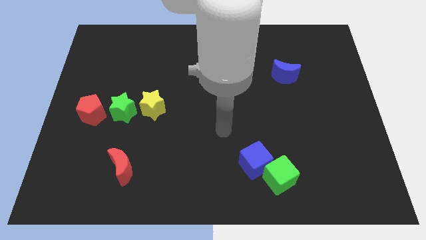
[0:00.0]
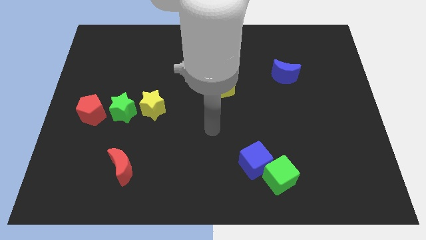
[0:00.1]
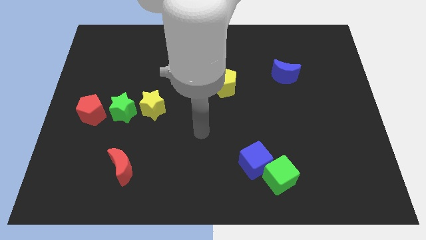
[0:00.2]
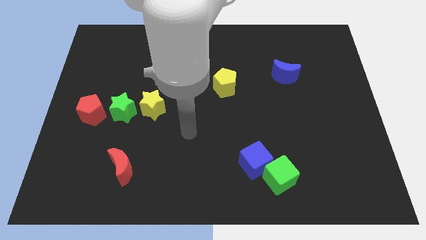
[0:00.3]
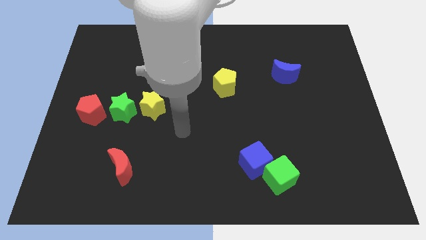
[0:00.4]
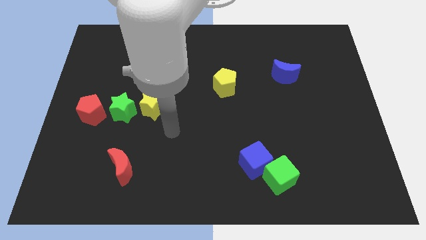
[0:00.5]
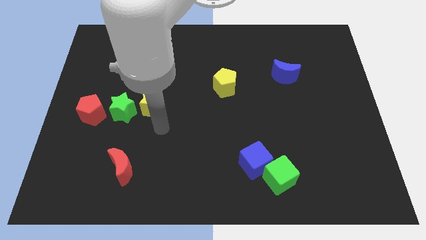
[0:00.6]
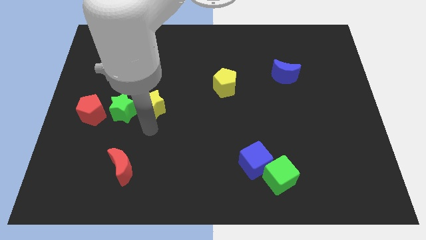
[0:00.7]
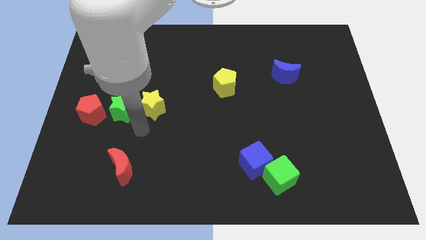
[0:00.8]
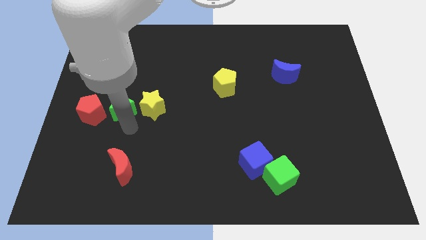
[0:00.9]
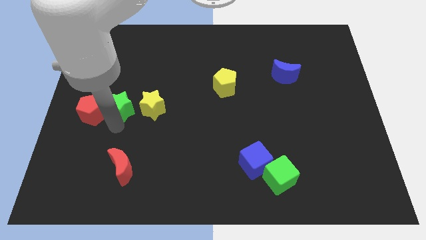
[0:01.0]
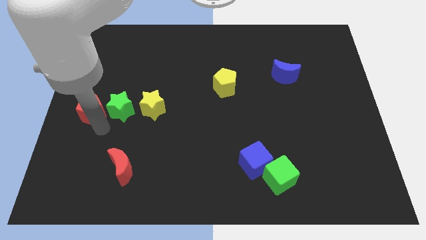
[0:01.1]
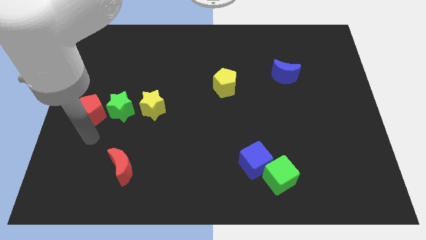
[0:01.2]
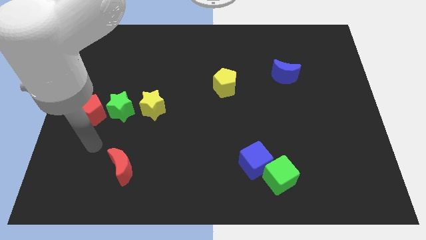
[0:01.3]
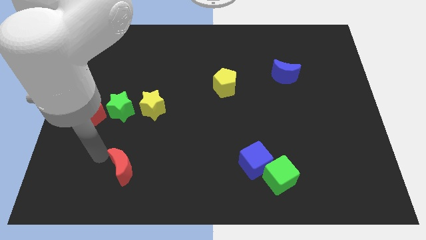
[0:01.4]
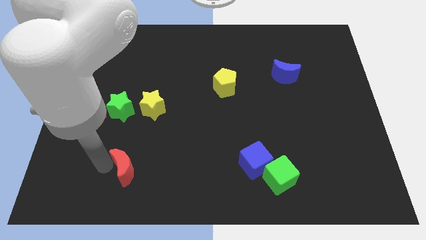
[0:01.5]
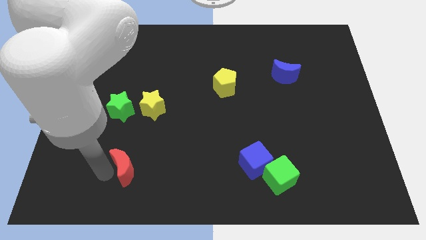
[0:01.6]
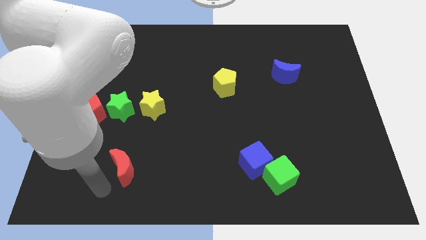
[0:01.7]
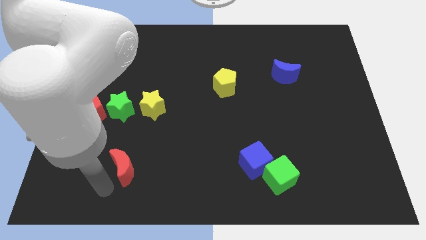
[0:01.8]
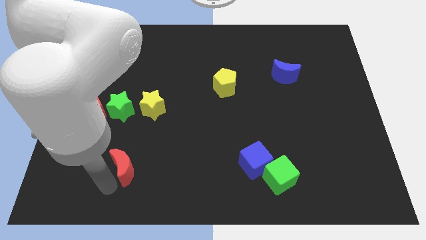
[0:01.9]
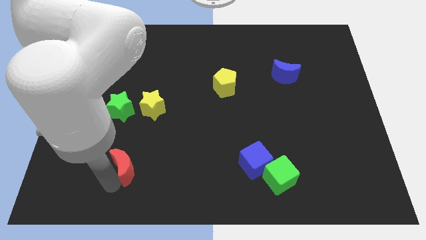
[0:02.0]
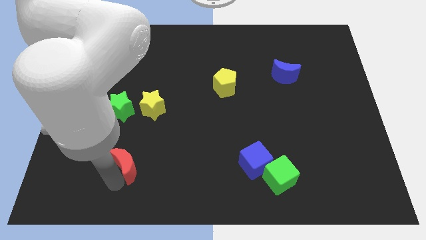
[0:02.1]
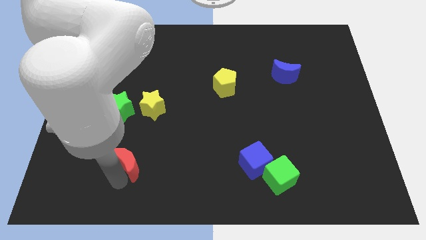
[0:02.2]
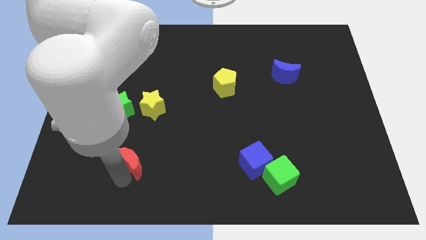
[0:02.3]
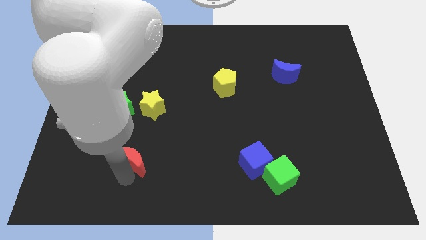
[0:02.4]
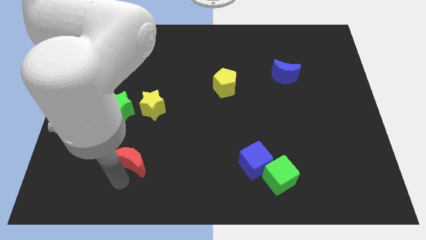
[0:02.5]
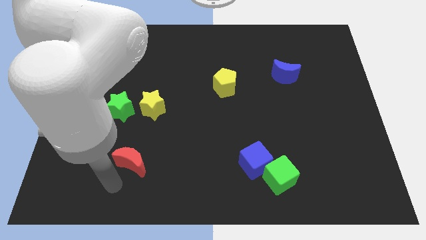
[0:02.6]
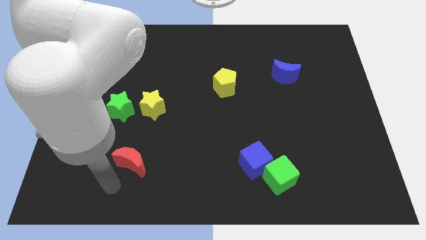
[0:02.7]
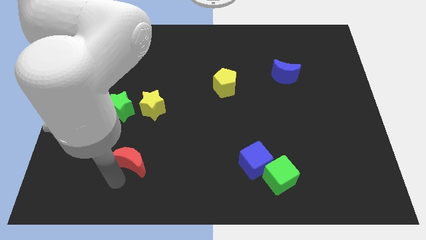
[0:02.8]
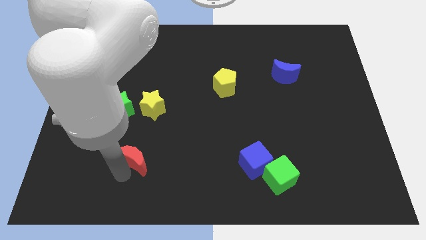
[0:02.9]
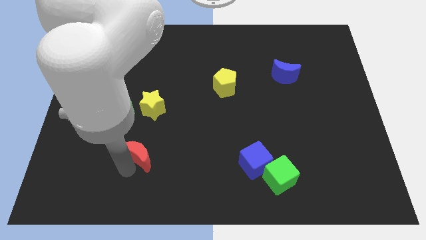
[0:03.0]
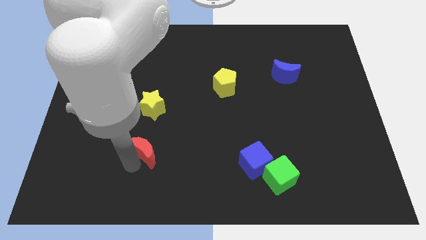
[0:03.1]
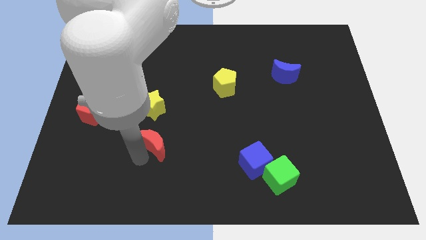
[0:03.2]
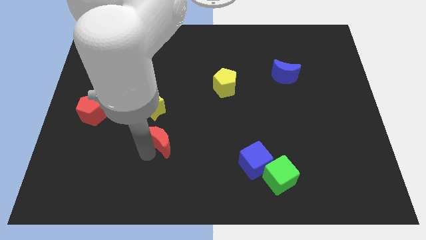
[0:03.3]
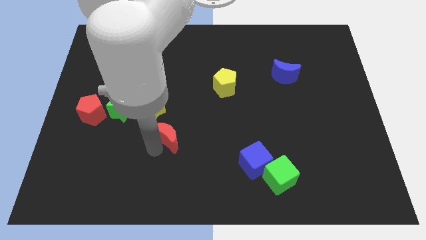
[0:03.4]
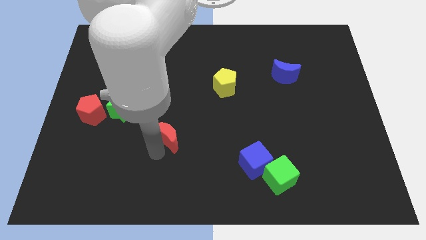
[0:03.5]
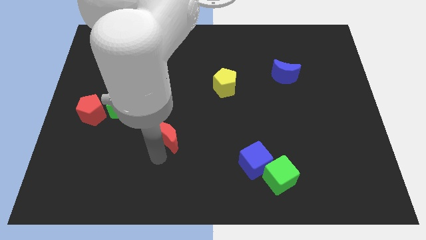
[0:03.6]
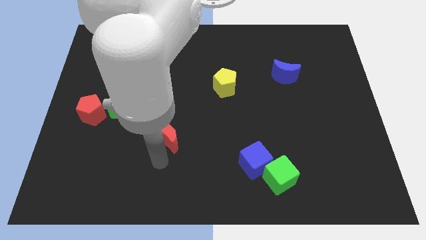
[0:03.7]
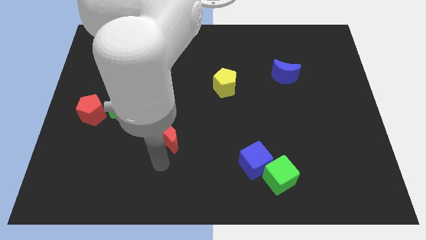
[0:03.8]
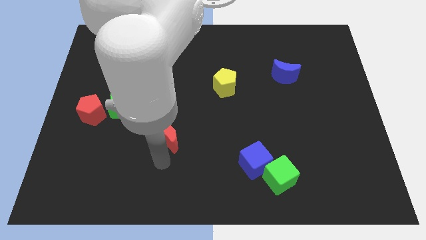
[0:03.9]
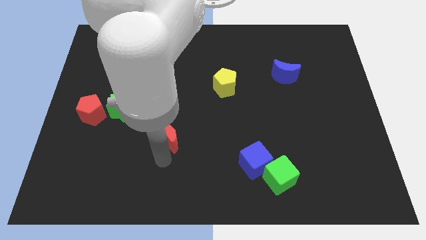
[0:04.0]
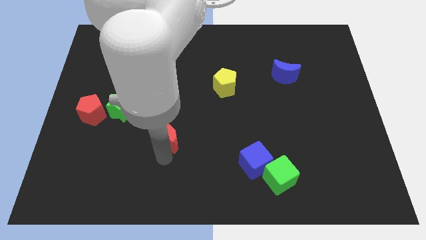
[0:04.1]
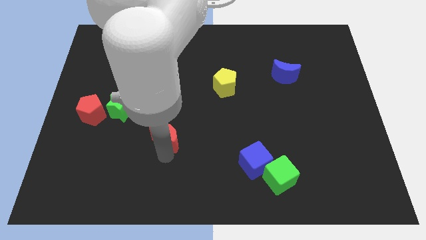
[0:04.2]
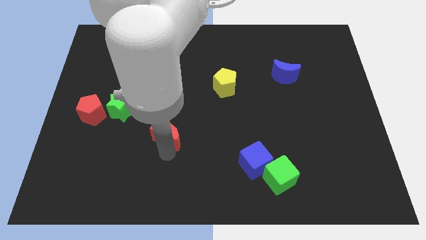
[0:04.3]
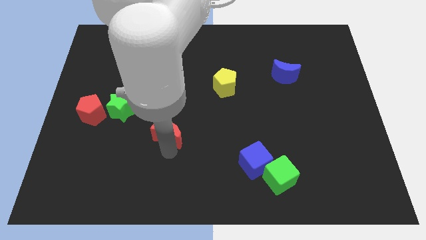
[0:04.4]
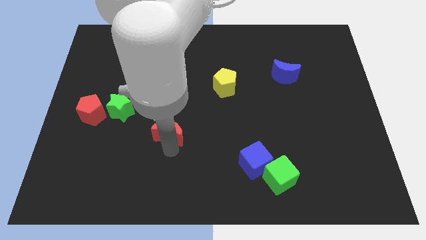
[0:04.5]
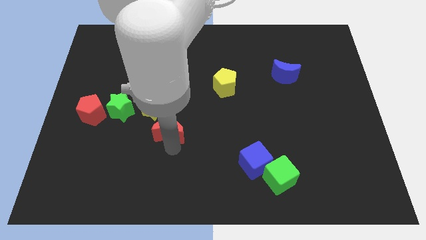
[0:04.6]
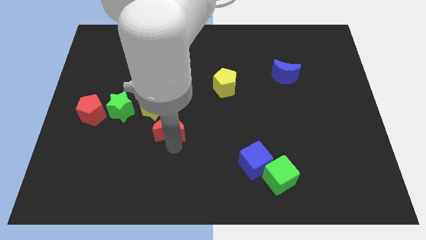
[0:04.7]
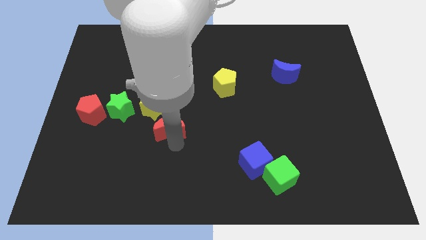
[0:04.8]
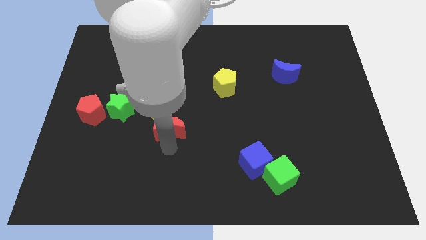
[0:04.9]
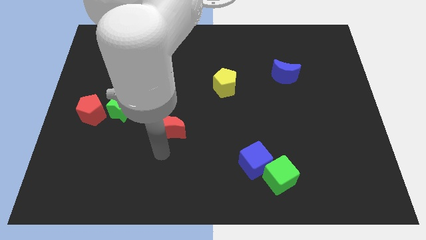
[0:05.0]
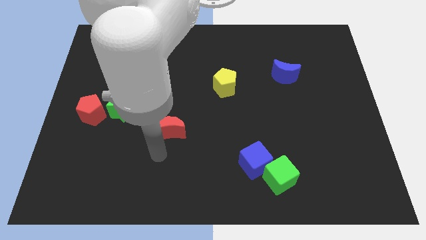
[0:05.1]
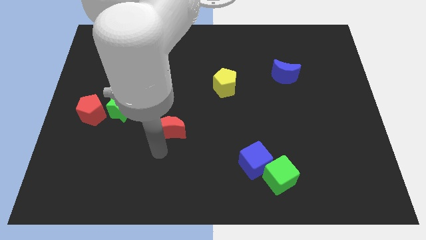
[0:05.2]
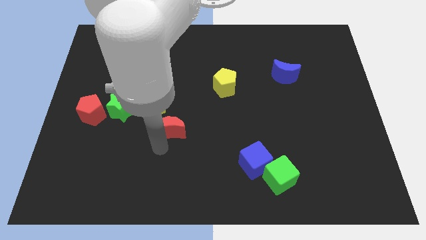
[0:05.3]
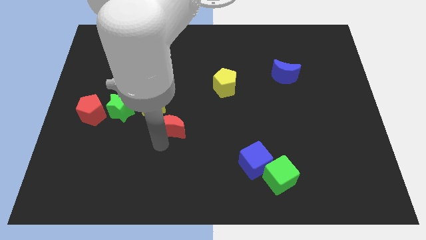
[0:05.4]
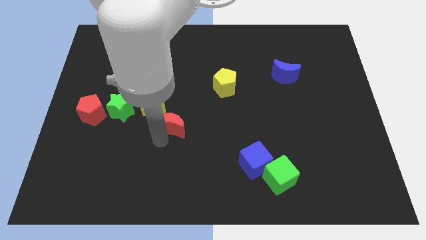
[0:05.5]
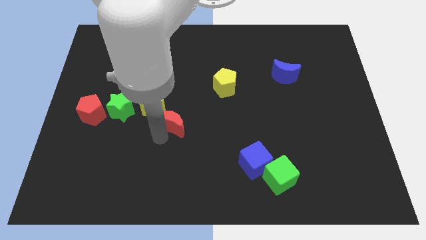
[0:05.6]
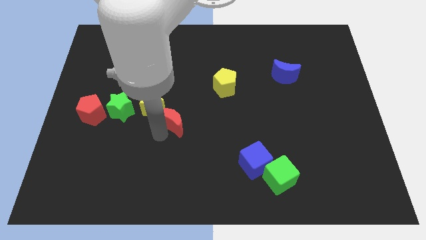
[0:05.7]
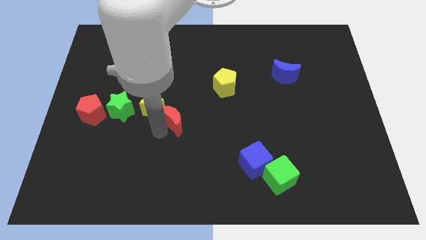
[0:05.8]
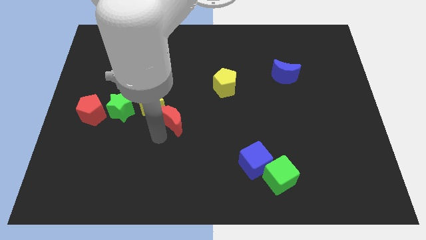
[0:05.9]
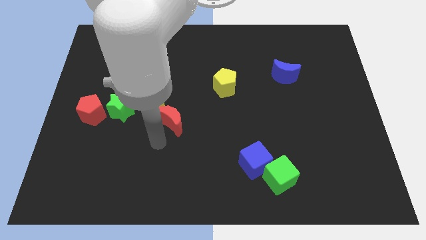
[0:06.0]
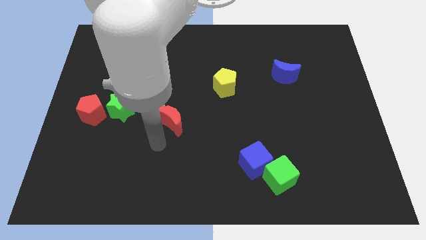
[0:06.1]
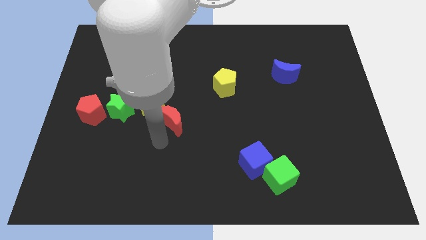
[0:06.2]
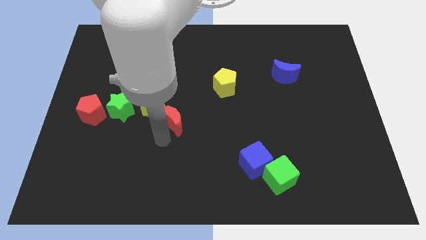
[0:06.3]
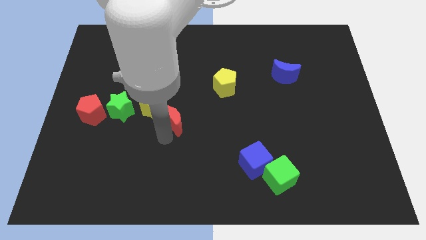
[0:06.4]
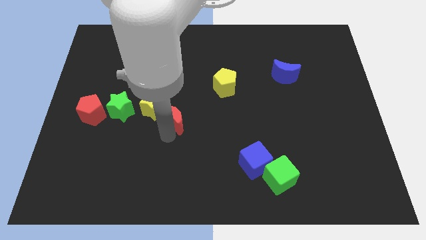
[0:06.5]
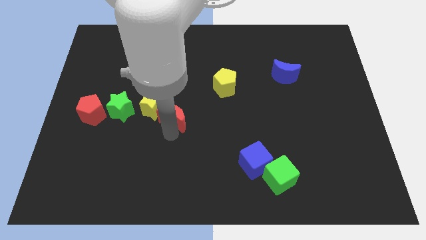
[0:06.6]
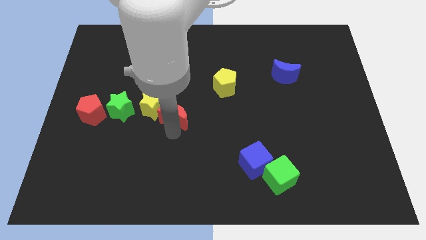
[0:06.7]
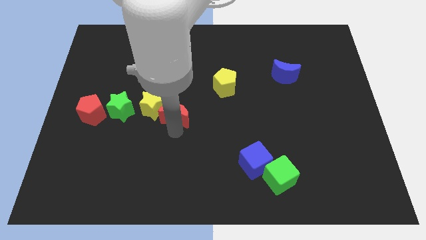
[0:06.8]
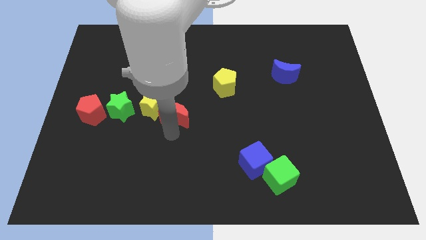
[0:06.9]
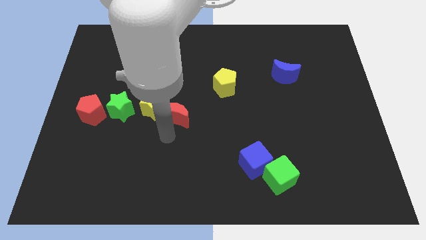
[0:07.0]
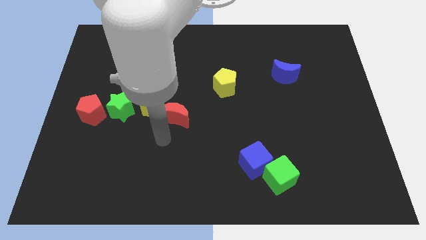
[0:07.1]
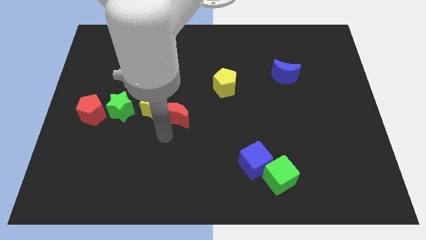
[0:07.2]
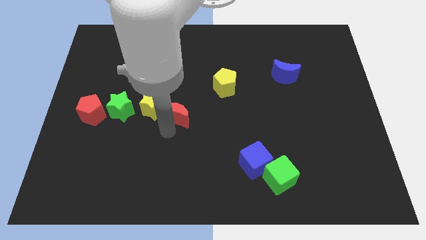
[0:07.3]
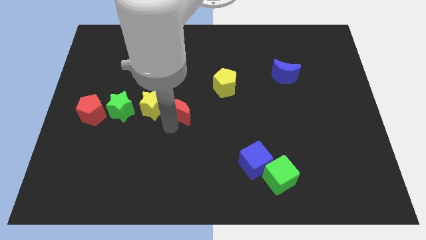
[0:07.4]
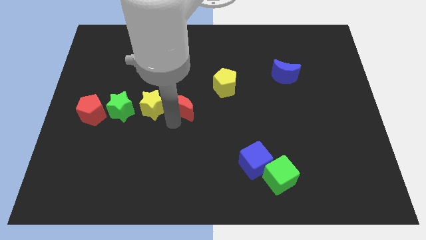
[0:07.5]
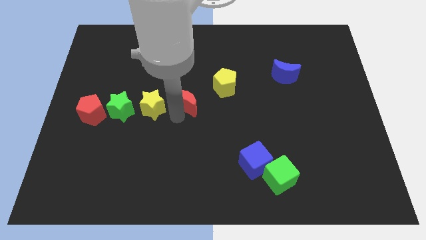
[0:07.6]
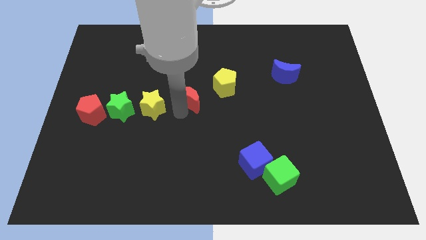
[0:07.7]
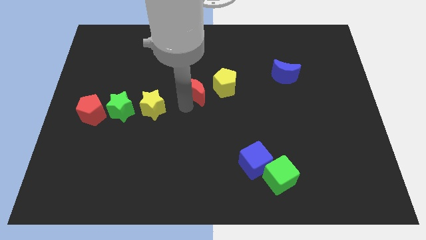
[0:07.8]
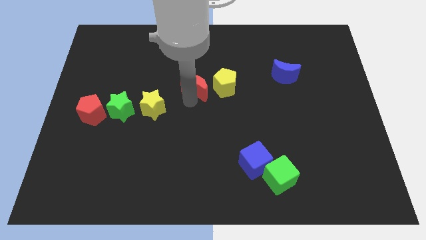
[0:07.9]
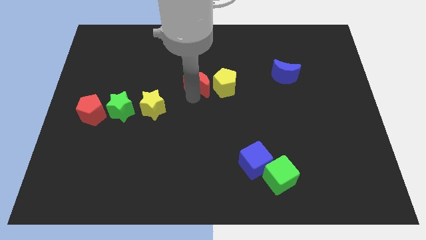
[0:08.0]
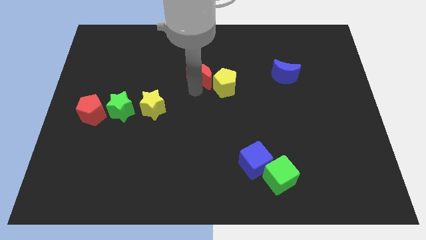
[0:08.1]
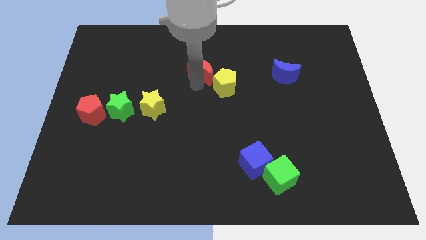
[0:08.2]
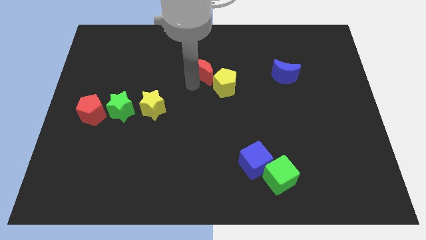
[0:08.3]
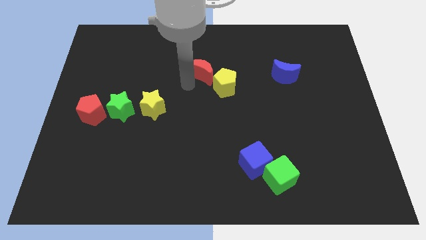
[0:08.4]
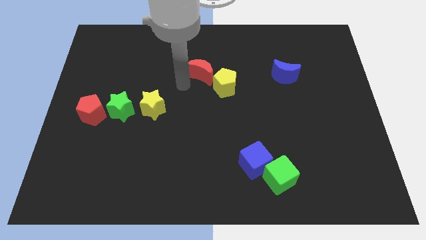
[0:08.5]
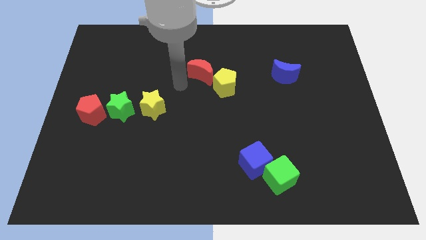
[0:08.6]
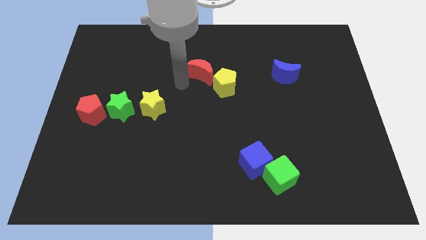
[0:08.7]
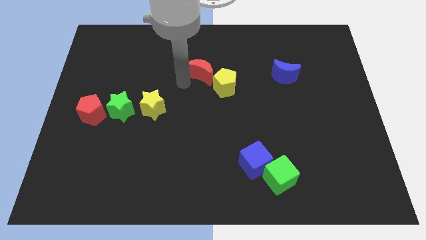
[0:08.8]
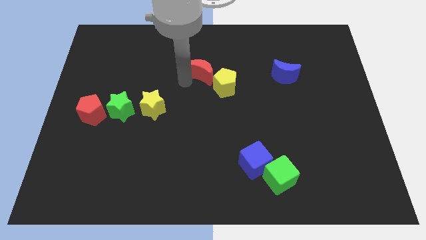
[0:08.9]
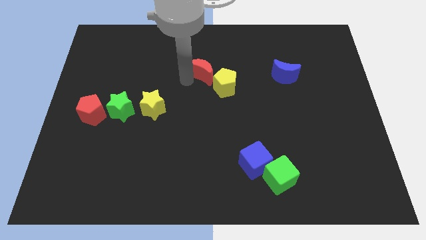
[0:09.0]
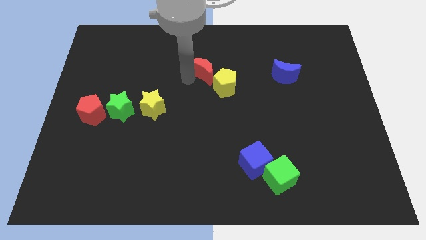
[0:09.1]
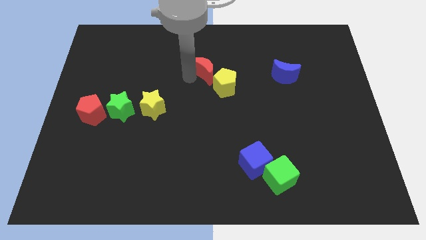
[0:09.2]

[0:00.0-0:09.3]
put the red moon to the top side of the yellow pentagon
